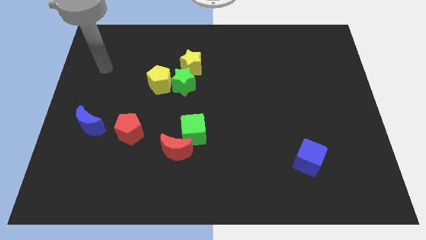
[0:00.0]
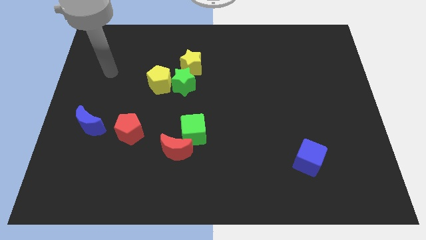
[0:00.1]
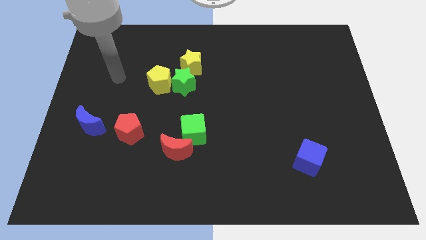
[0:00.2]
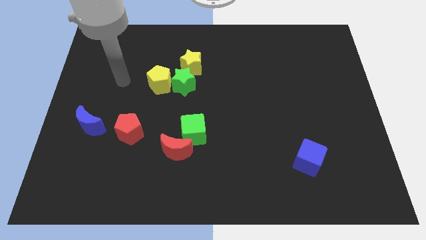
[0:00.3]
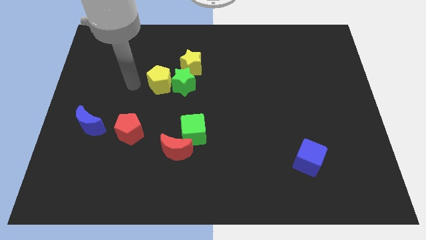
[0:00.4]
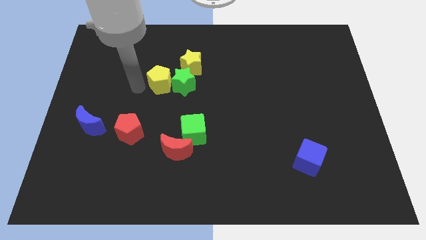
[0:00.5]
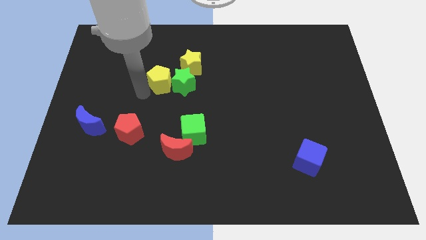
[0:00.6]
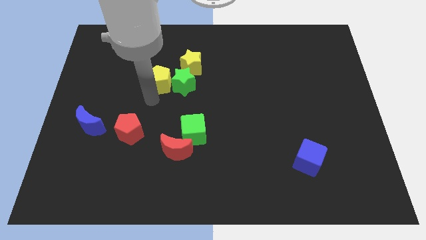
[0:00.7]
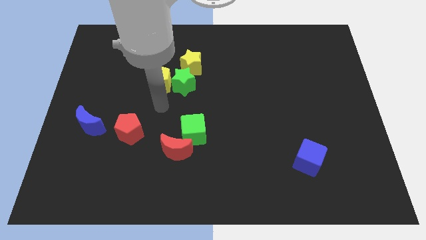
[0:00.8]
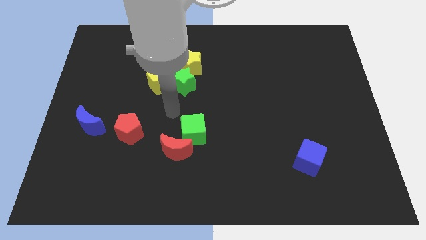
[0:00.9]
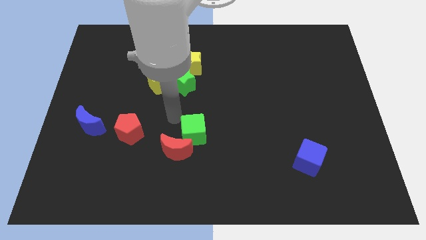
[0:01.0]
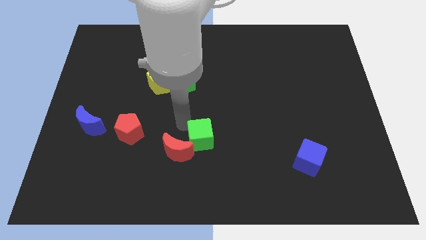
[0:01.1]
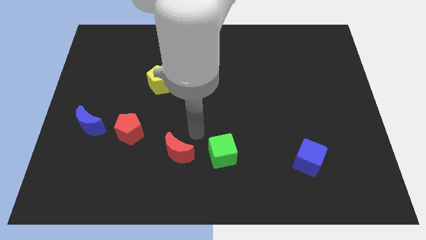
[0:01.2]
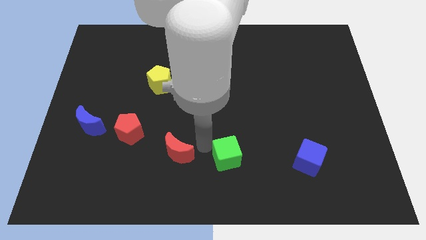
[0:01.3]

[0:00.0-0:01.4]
move the red moon away from the green cube

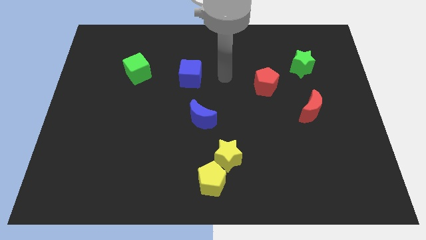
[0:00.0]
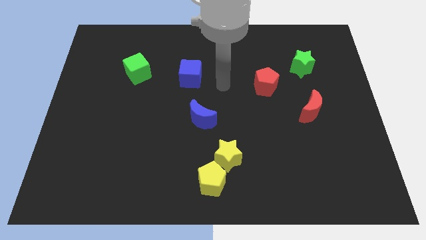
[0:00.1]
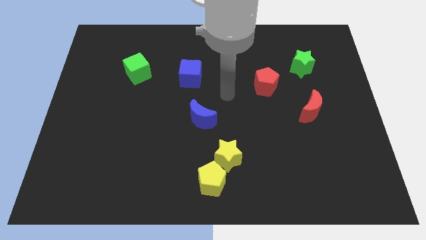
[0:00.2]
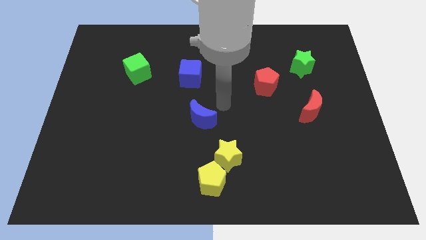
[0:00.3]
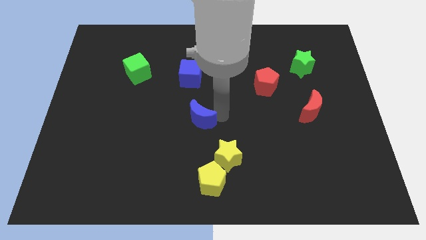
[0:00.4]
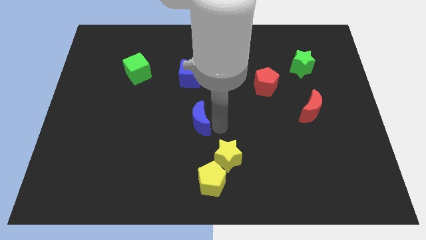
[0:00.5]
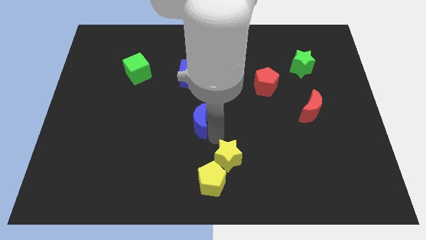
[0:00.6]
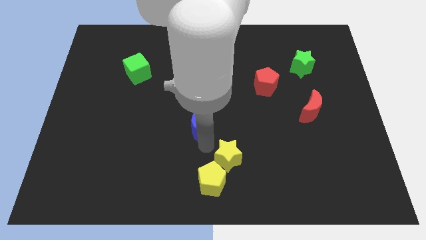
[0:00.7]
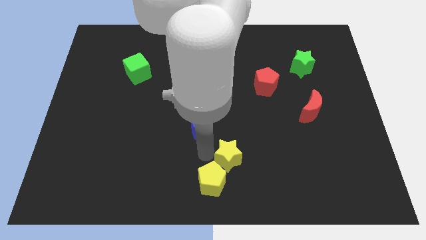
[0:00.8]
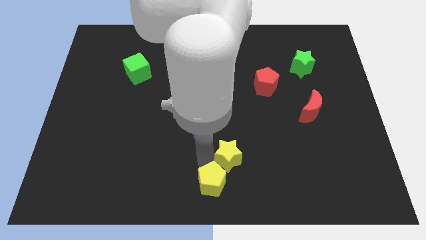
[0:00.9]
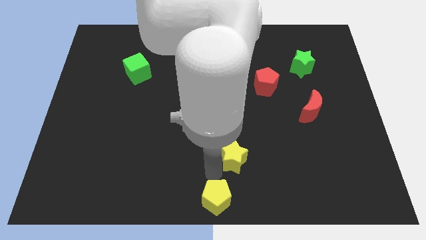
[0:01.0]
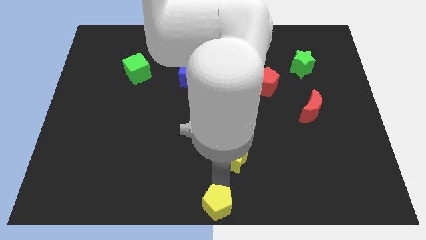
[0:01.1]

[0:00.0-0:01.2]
move the yellow star away from the yellow pentagon

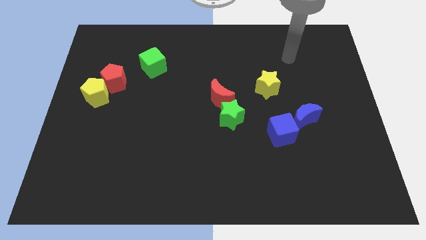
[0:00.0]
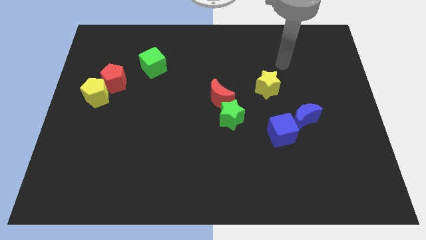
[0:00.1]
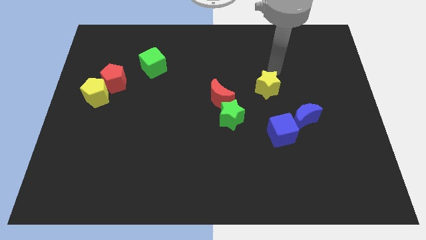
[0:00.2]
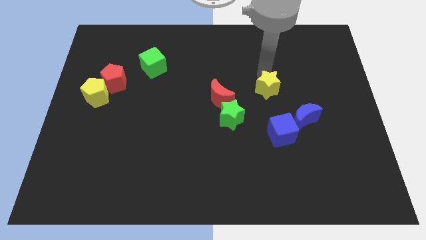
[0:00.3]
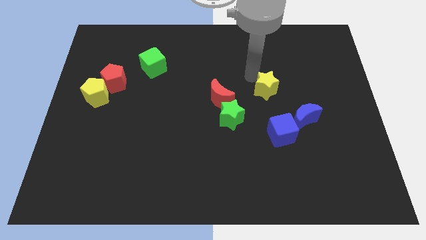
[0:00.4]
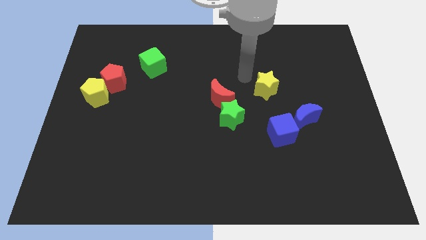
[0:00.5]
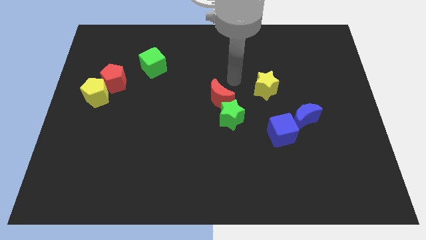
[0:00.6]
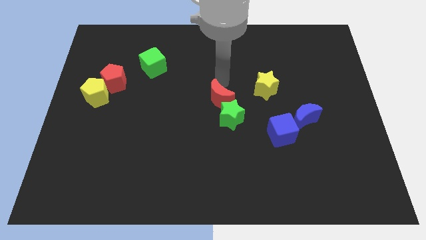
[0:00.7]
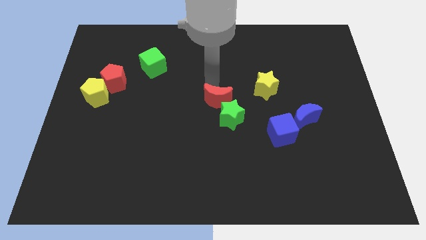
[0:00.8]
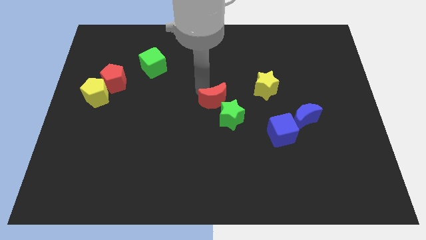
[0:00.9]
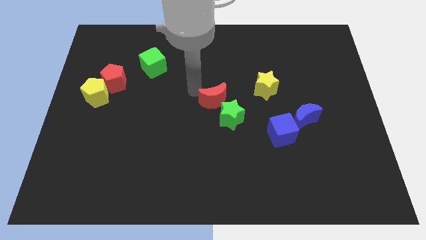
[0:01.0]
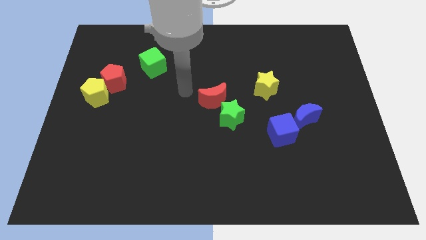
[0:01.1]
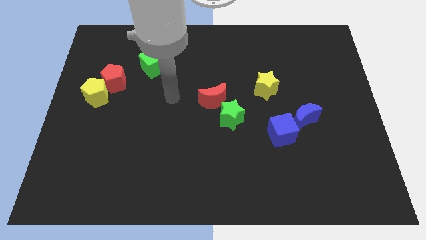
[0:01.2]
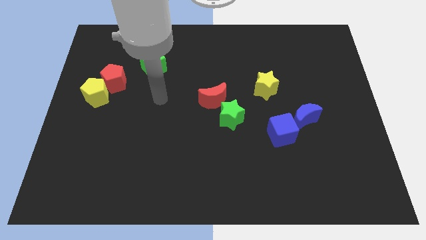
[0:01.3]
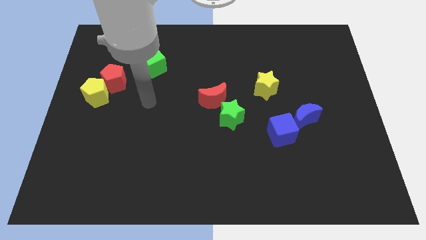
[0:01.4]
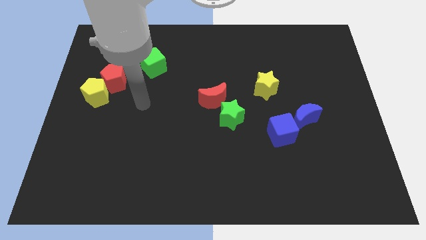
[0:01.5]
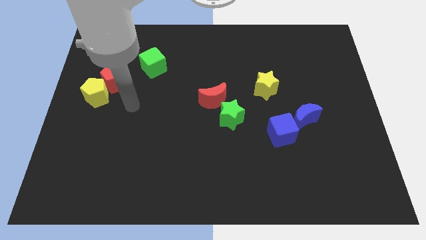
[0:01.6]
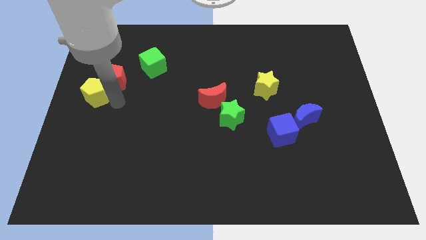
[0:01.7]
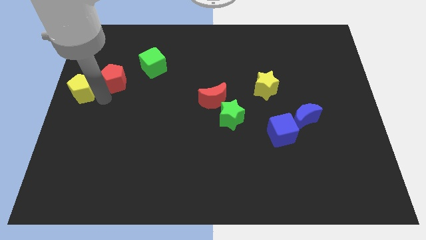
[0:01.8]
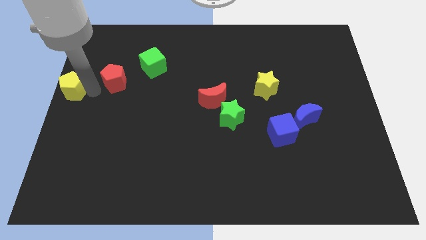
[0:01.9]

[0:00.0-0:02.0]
pull the red pentagon apart from the yellow pentagon

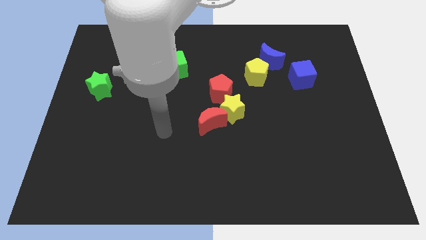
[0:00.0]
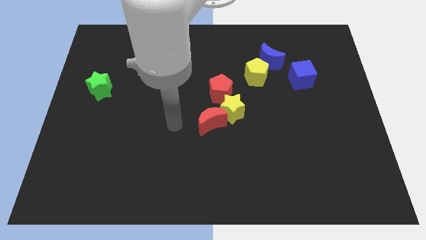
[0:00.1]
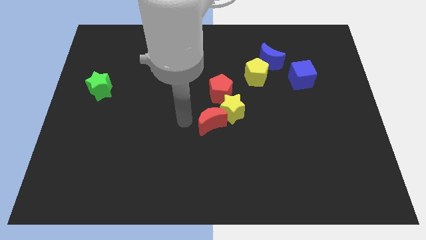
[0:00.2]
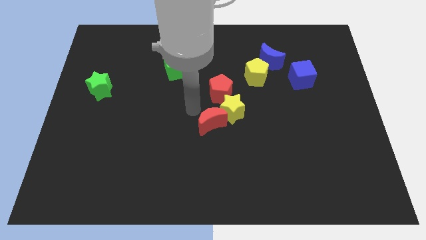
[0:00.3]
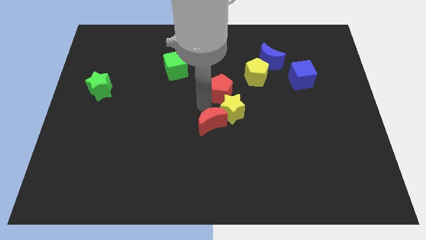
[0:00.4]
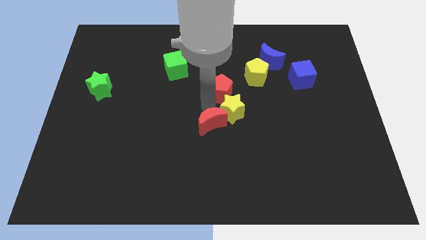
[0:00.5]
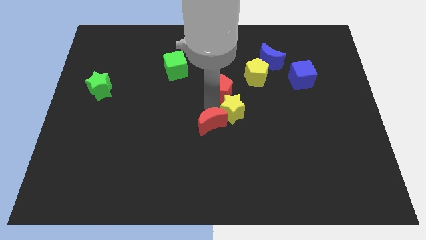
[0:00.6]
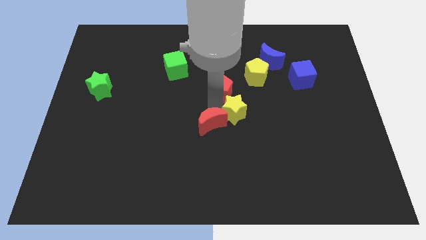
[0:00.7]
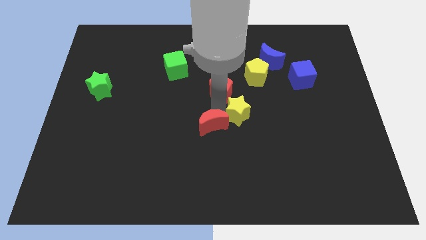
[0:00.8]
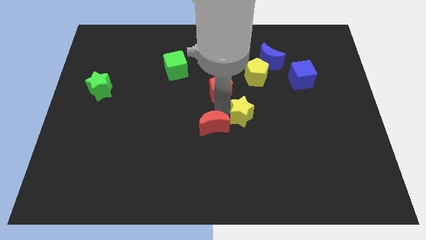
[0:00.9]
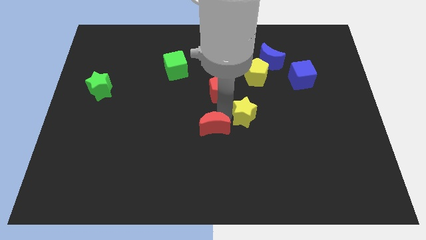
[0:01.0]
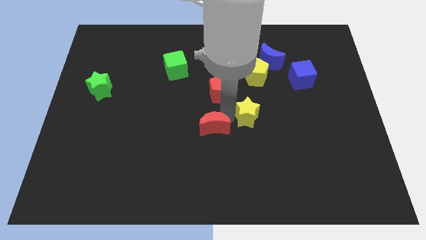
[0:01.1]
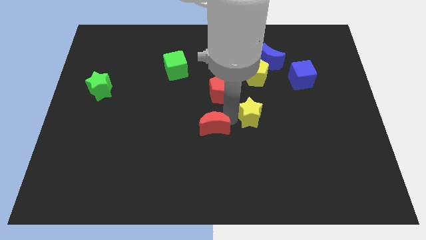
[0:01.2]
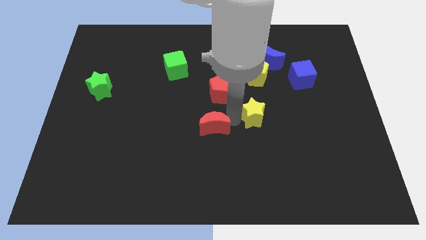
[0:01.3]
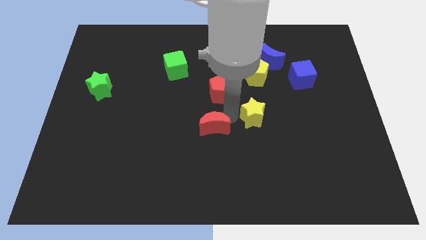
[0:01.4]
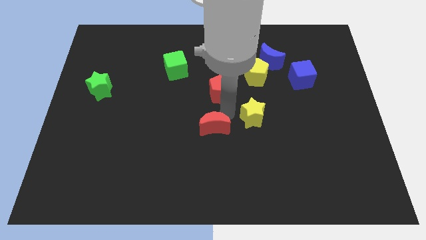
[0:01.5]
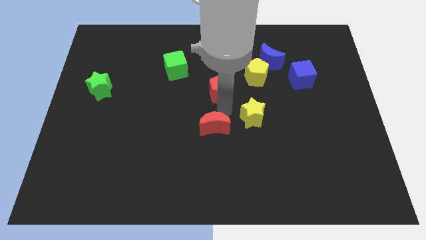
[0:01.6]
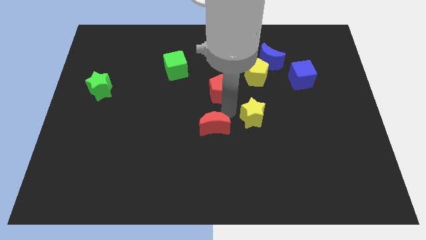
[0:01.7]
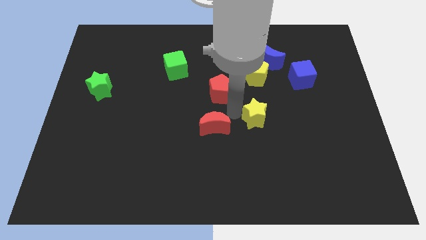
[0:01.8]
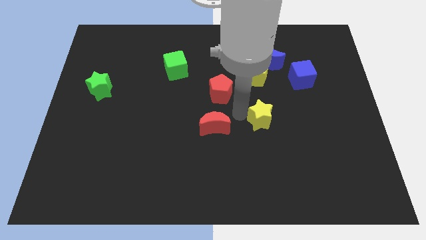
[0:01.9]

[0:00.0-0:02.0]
move the yellow star away from the red moon and red pentagon

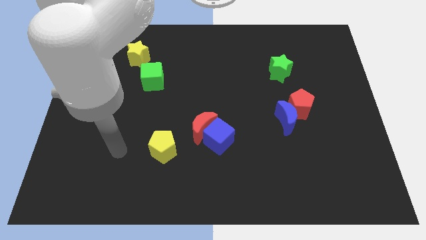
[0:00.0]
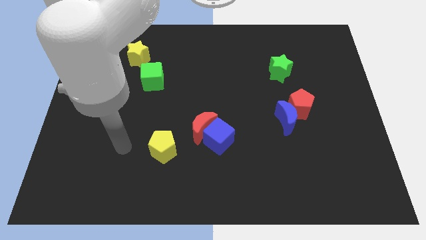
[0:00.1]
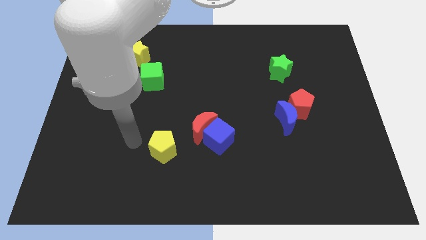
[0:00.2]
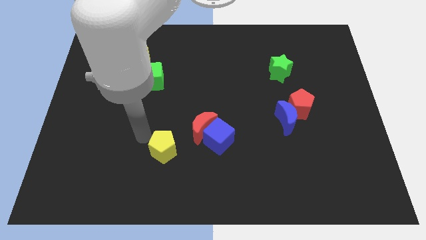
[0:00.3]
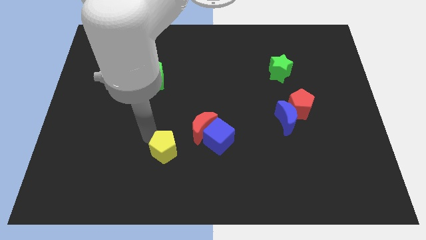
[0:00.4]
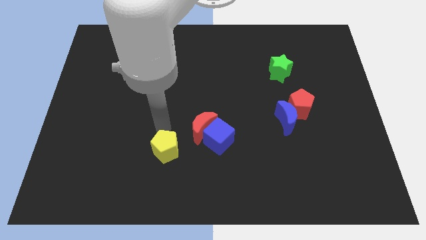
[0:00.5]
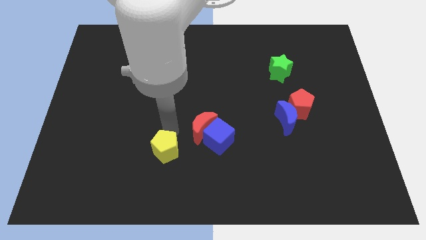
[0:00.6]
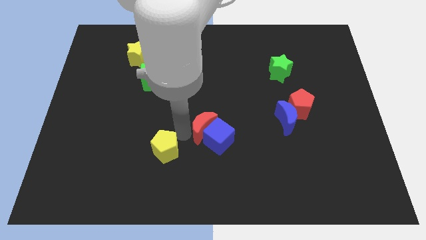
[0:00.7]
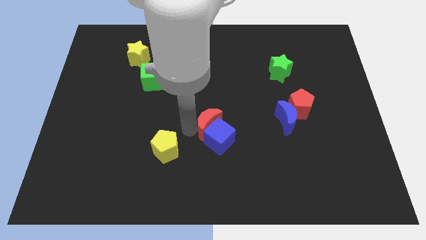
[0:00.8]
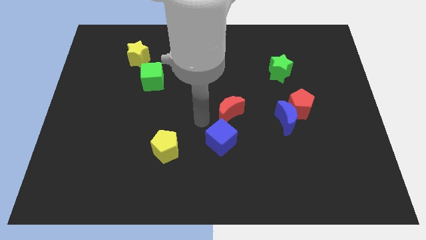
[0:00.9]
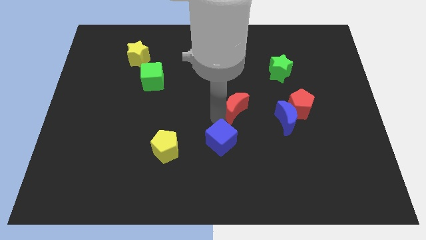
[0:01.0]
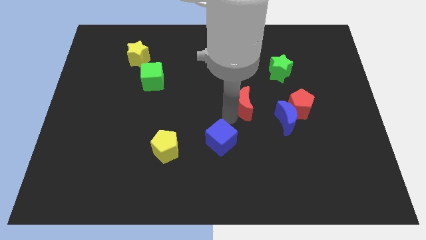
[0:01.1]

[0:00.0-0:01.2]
move the blue cube away from the red moon

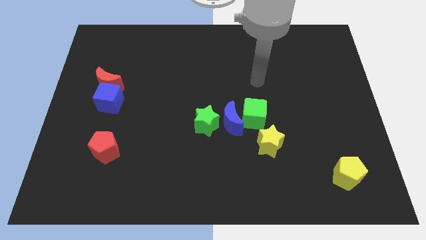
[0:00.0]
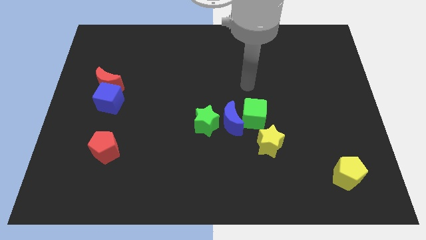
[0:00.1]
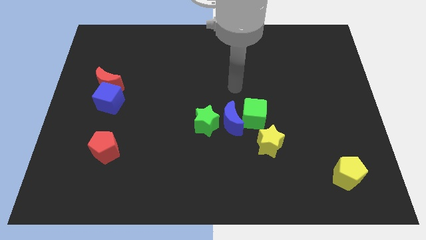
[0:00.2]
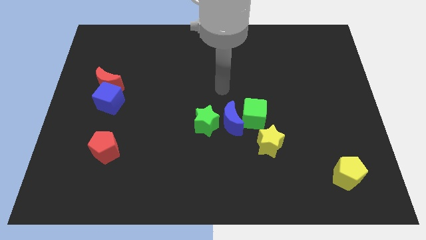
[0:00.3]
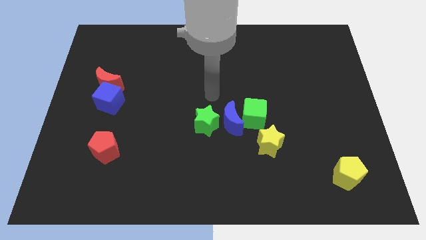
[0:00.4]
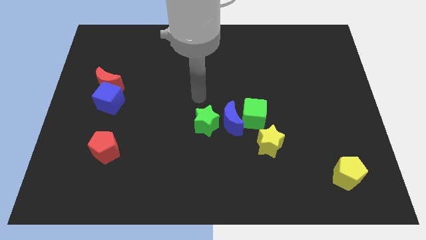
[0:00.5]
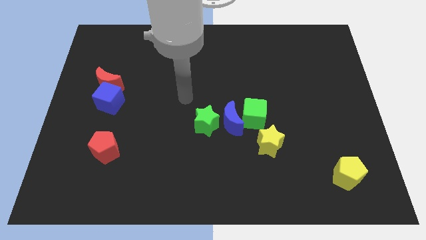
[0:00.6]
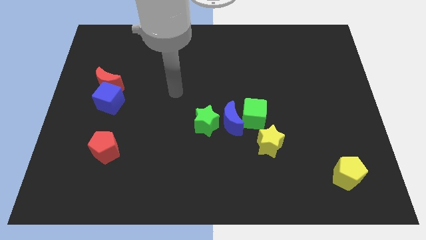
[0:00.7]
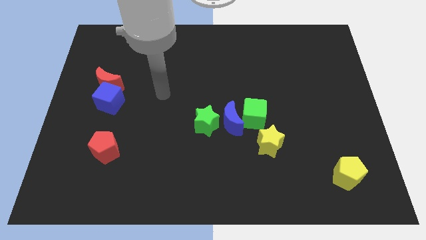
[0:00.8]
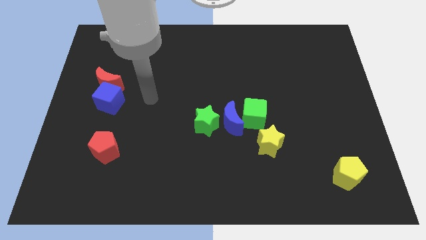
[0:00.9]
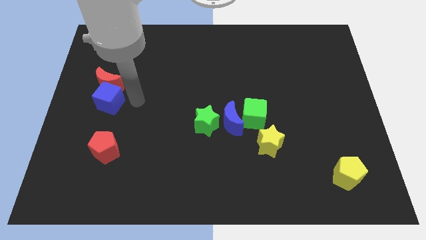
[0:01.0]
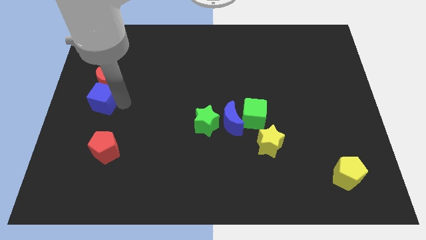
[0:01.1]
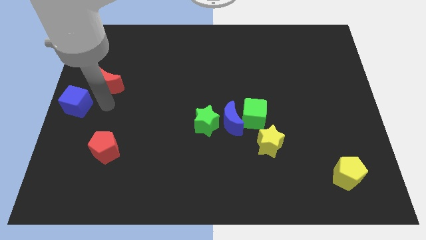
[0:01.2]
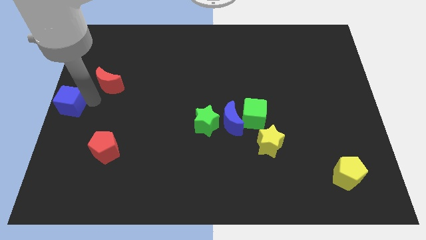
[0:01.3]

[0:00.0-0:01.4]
move the red moon away from the blue cube

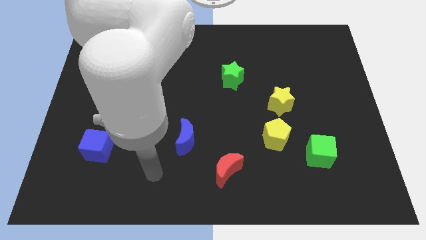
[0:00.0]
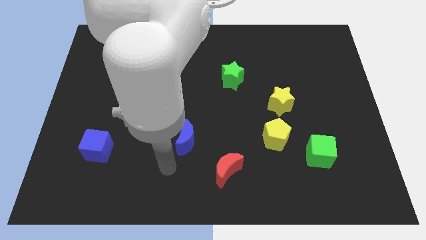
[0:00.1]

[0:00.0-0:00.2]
pull the yellow star apart from the yellow pentagon
